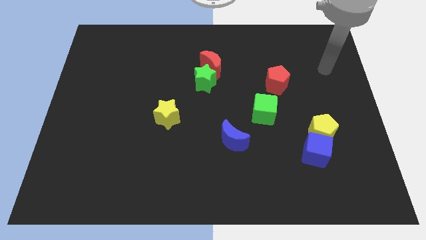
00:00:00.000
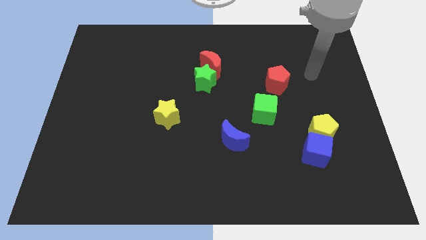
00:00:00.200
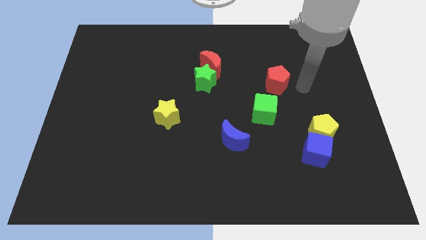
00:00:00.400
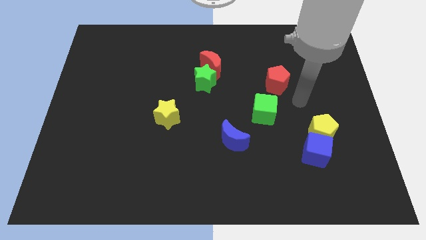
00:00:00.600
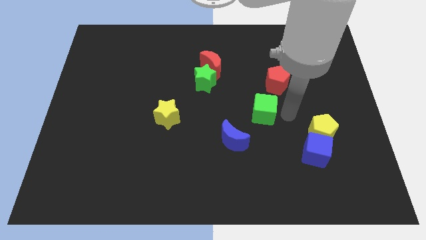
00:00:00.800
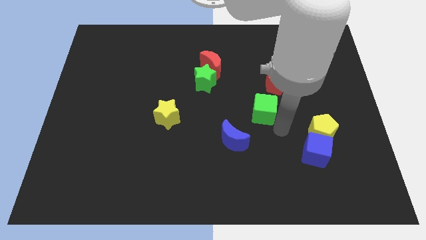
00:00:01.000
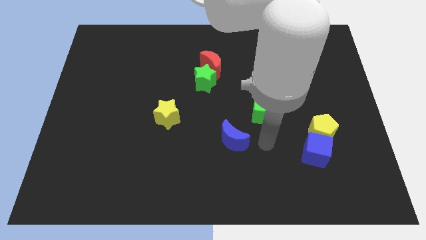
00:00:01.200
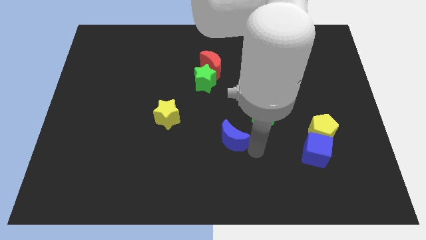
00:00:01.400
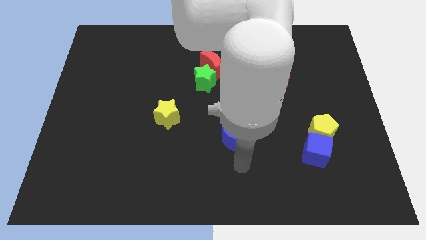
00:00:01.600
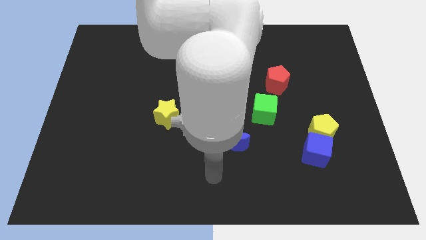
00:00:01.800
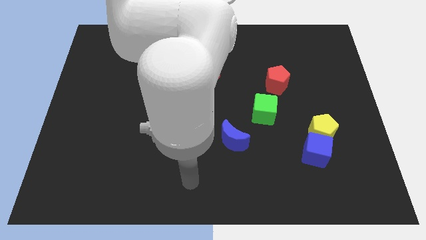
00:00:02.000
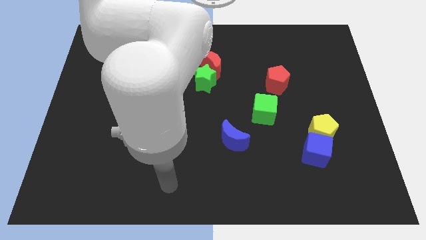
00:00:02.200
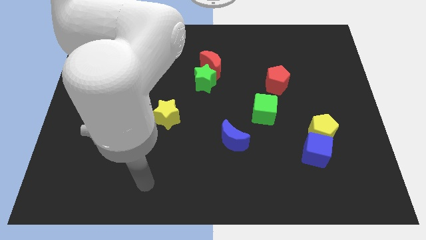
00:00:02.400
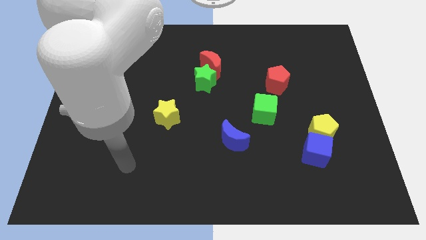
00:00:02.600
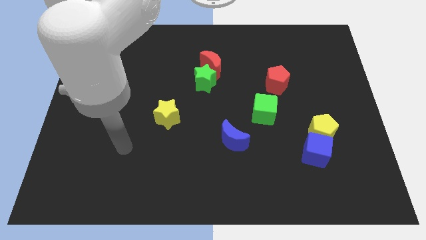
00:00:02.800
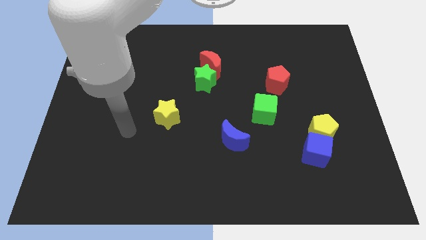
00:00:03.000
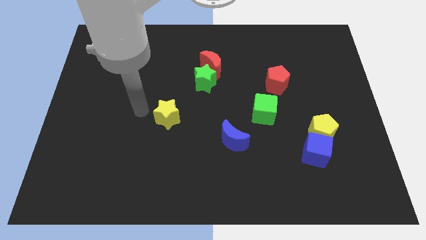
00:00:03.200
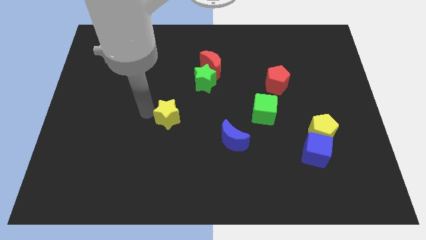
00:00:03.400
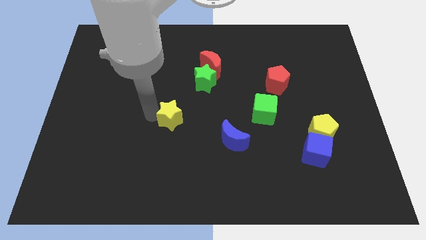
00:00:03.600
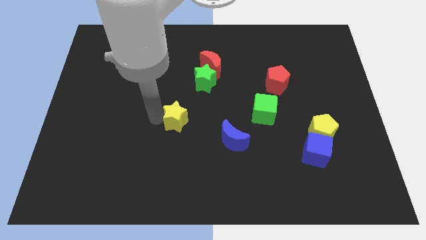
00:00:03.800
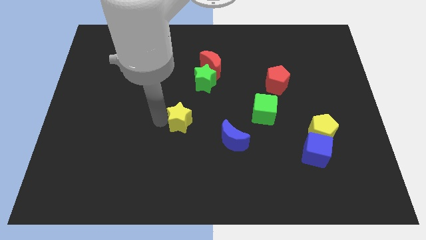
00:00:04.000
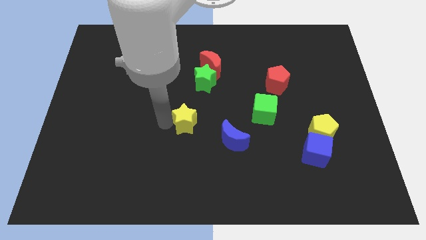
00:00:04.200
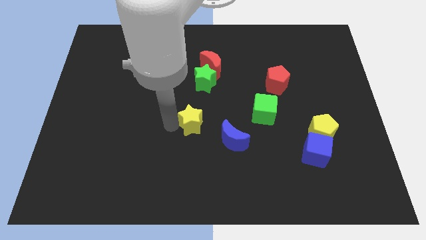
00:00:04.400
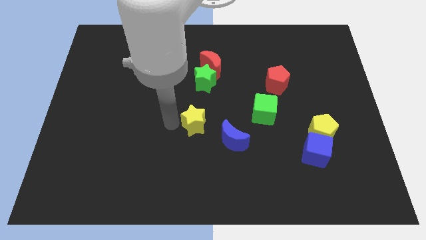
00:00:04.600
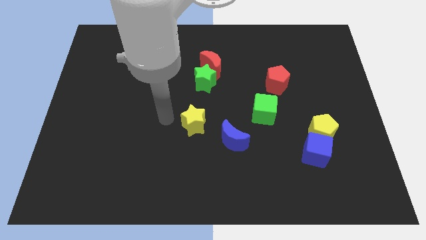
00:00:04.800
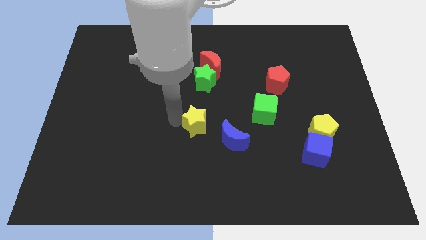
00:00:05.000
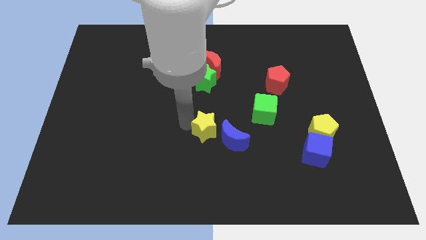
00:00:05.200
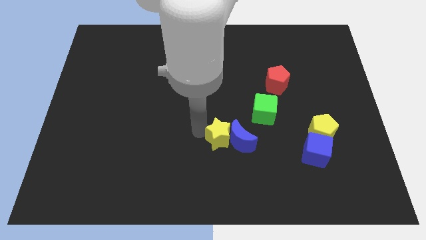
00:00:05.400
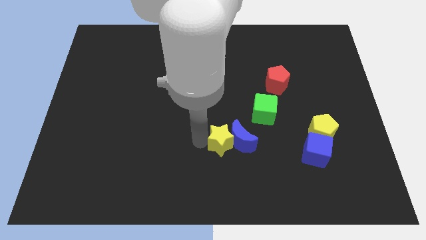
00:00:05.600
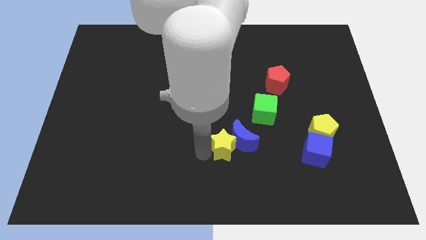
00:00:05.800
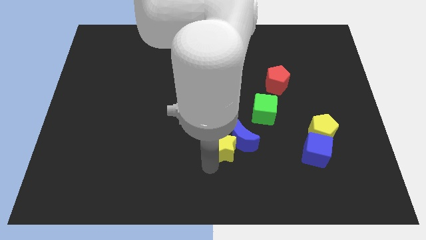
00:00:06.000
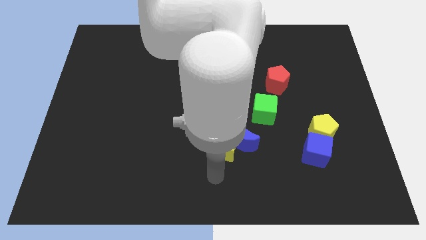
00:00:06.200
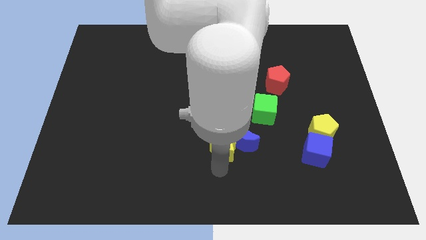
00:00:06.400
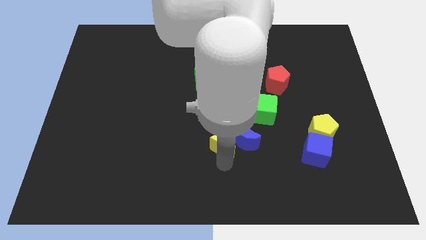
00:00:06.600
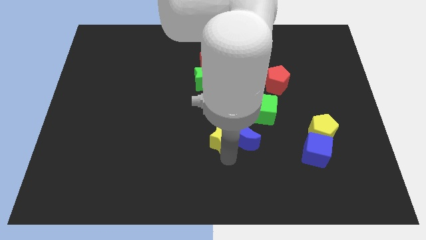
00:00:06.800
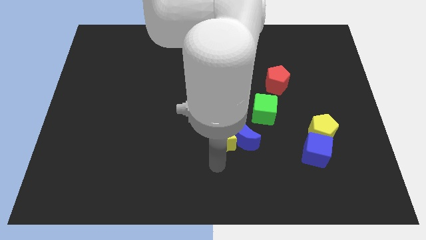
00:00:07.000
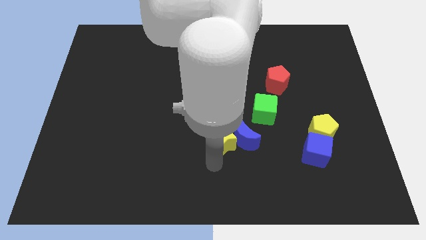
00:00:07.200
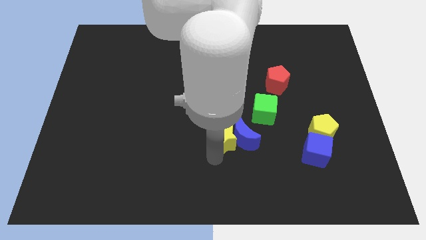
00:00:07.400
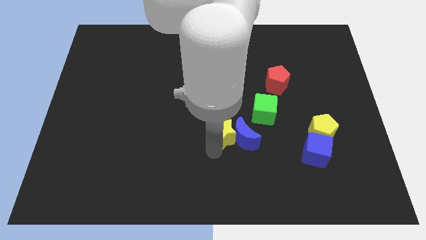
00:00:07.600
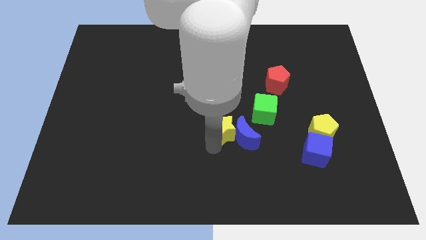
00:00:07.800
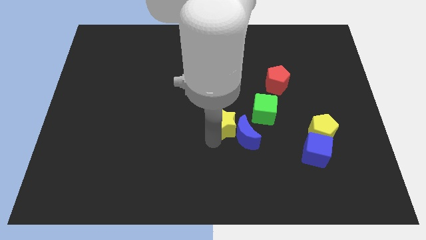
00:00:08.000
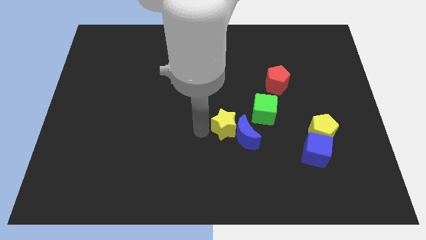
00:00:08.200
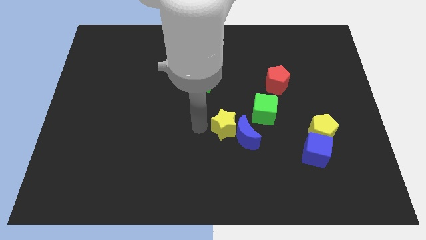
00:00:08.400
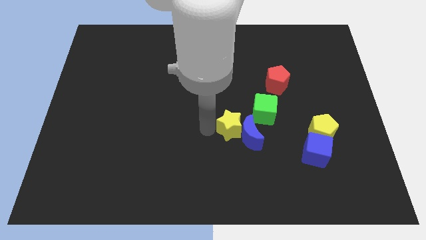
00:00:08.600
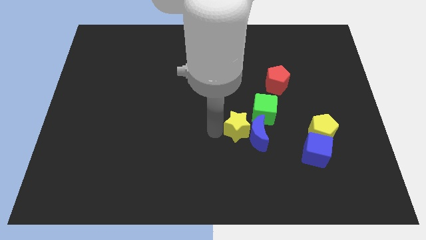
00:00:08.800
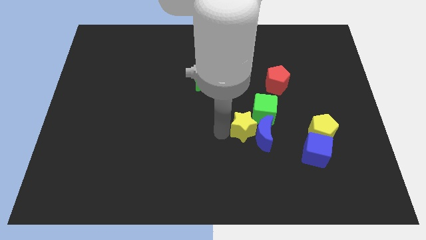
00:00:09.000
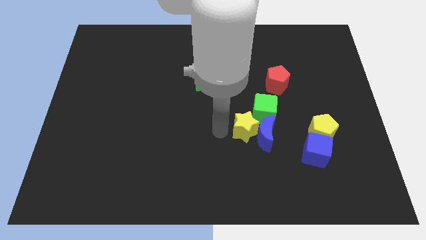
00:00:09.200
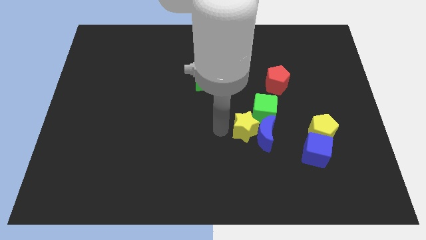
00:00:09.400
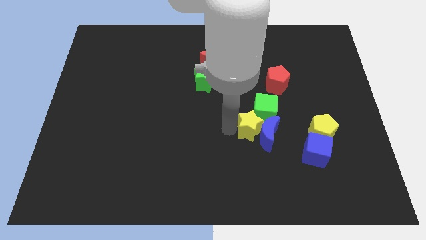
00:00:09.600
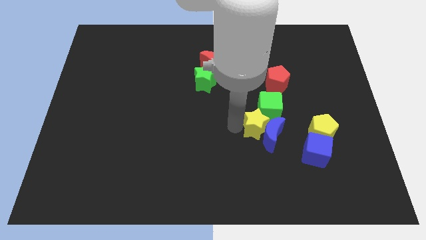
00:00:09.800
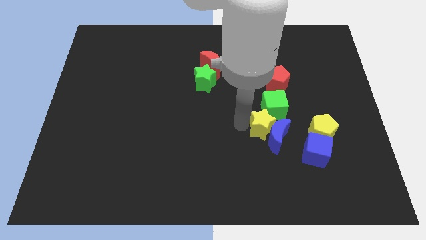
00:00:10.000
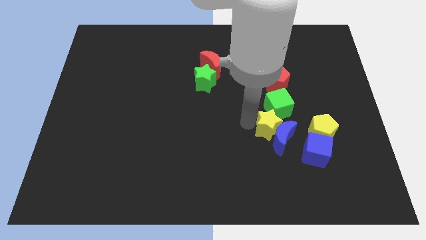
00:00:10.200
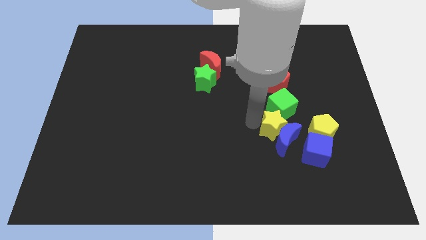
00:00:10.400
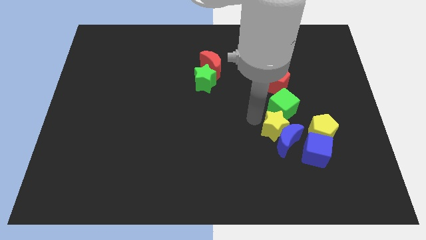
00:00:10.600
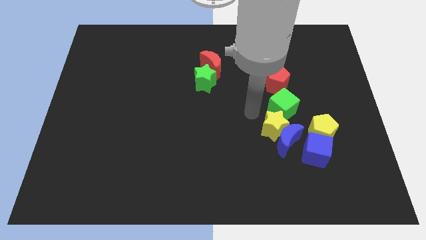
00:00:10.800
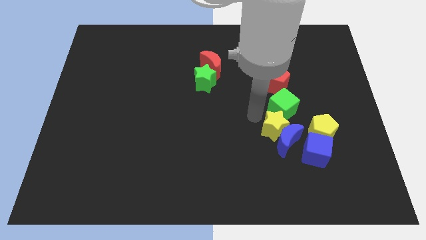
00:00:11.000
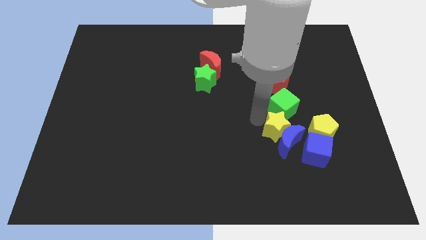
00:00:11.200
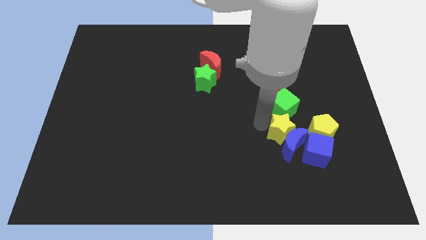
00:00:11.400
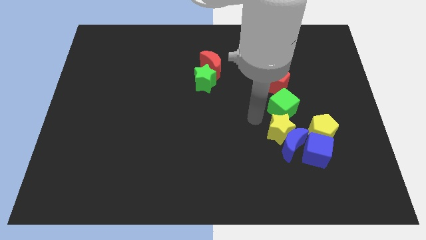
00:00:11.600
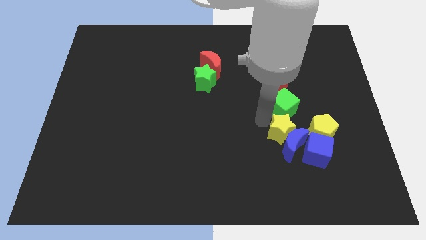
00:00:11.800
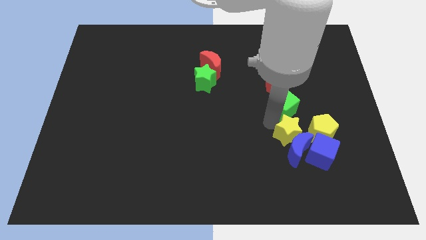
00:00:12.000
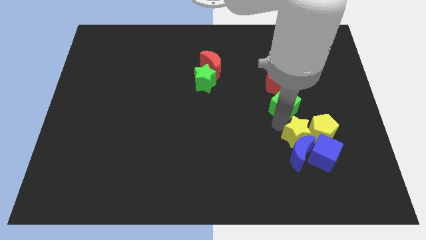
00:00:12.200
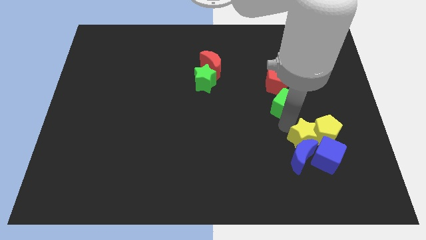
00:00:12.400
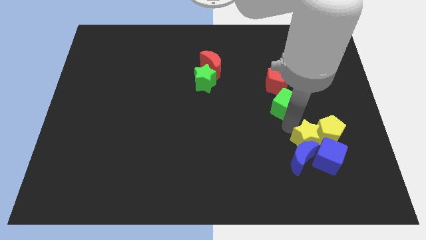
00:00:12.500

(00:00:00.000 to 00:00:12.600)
push the yellow star to the blue cube

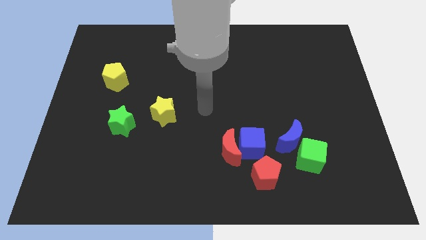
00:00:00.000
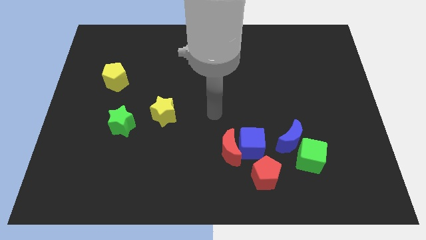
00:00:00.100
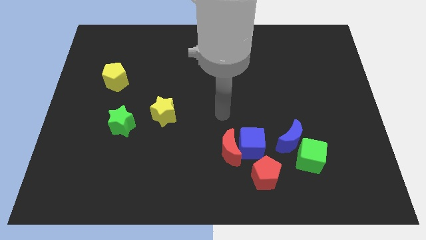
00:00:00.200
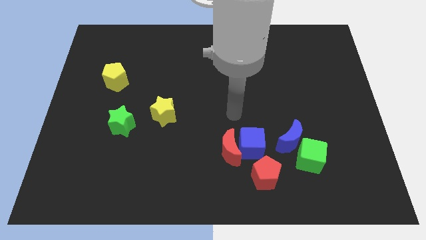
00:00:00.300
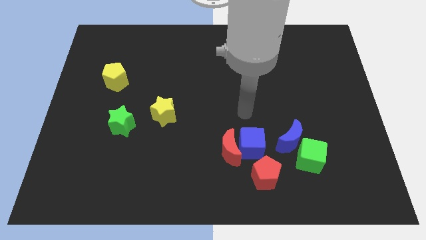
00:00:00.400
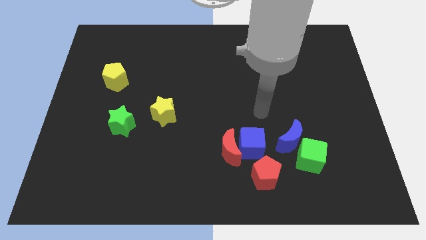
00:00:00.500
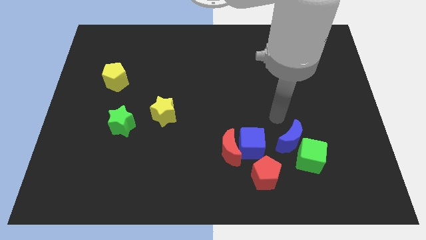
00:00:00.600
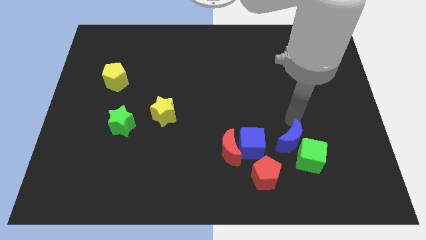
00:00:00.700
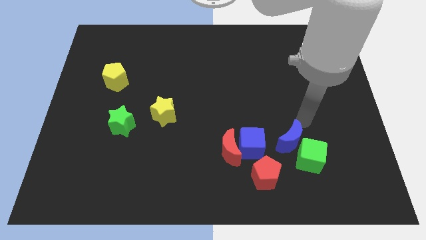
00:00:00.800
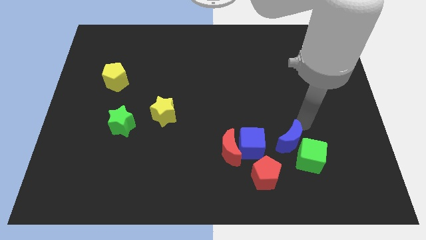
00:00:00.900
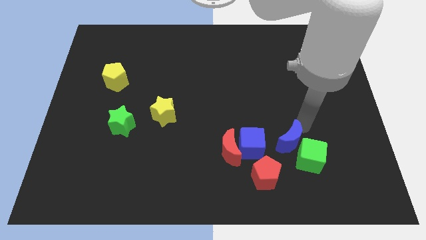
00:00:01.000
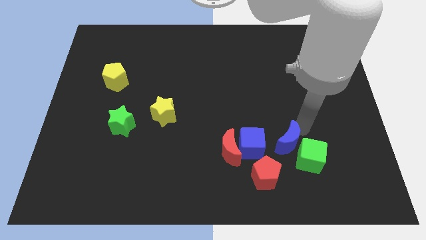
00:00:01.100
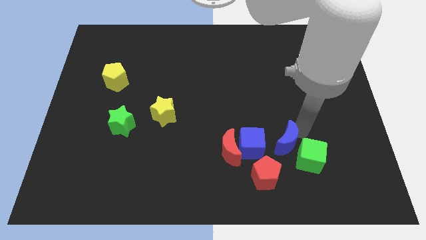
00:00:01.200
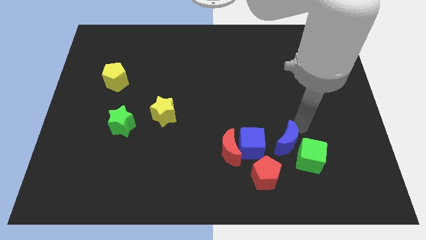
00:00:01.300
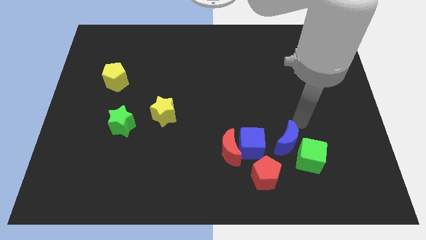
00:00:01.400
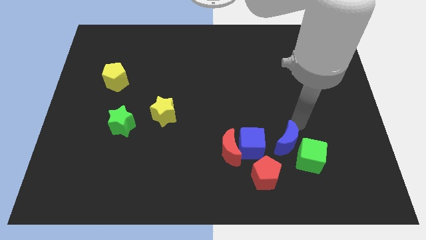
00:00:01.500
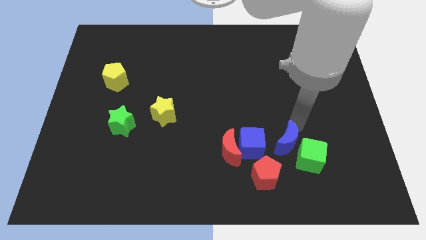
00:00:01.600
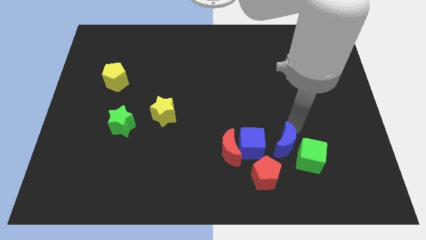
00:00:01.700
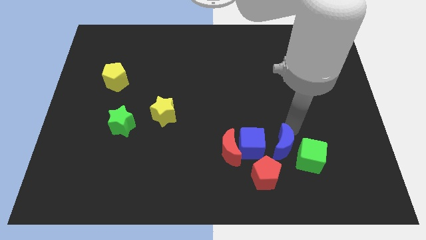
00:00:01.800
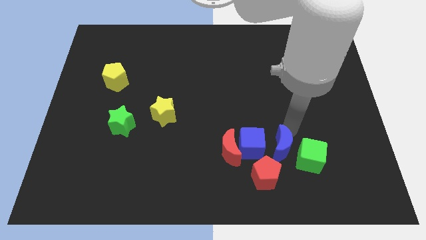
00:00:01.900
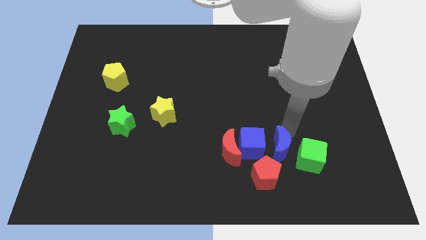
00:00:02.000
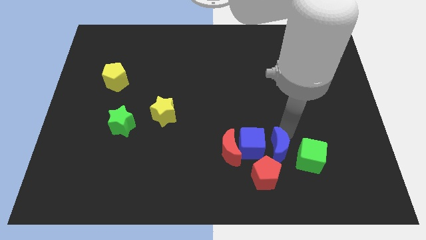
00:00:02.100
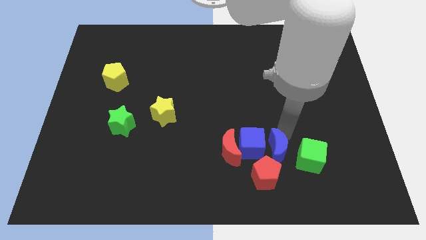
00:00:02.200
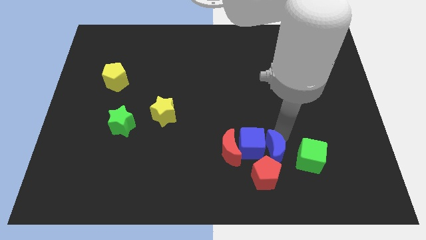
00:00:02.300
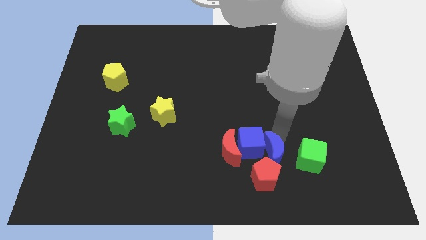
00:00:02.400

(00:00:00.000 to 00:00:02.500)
put the blue moon close to the red pentagon
